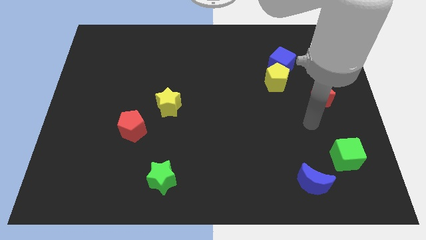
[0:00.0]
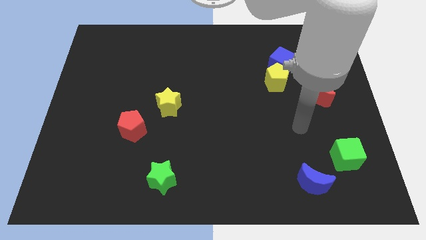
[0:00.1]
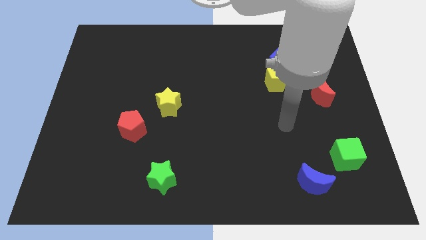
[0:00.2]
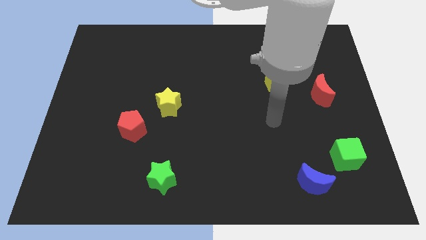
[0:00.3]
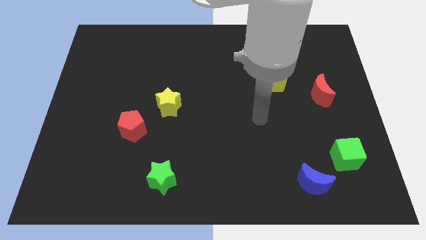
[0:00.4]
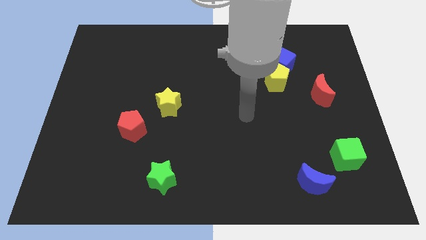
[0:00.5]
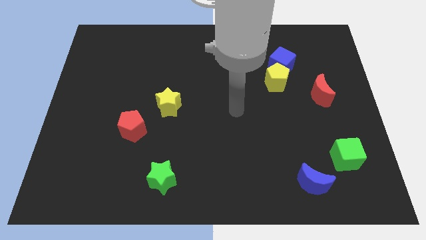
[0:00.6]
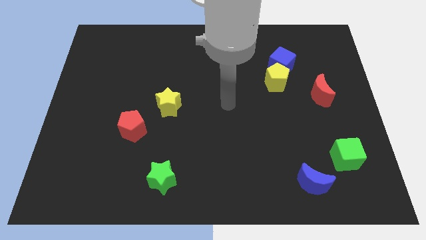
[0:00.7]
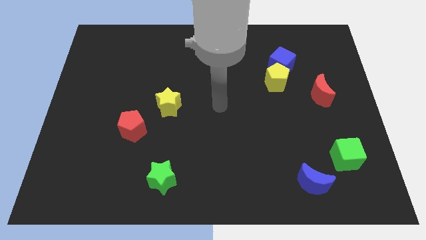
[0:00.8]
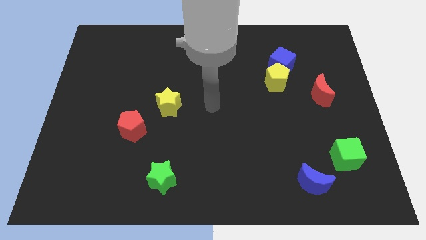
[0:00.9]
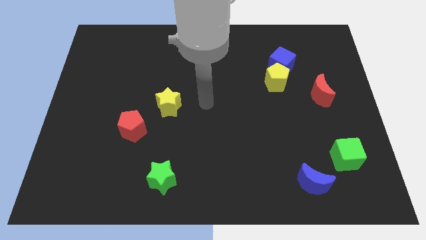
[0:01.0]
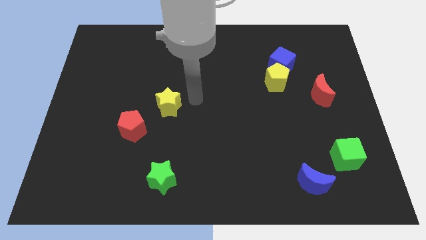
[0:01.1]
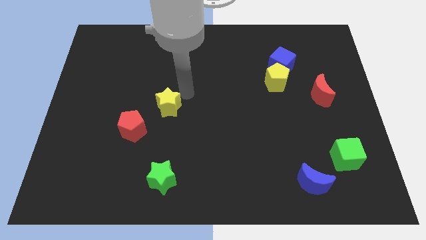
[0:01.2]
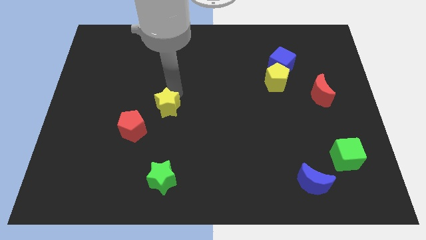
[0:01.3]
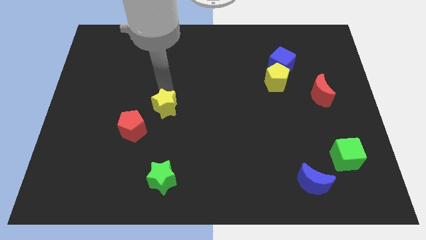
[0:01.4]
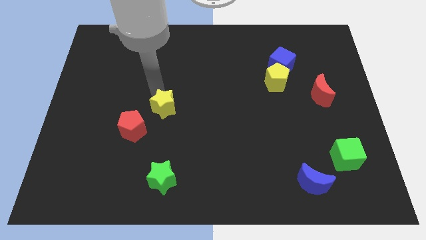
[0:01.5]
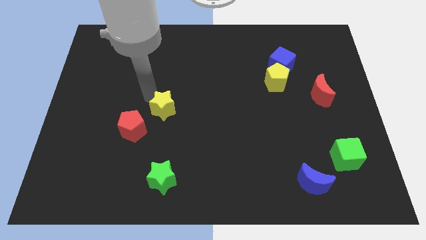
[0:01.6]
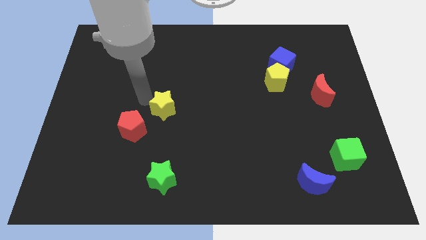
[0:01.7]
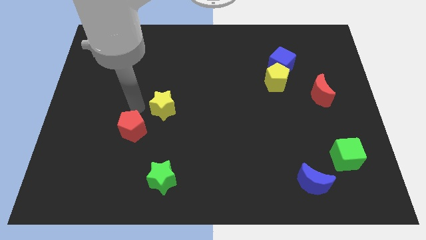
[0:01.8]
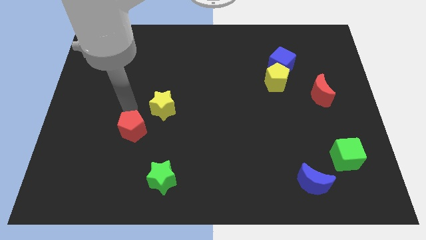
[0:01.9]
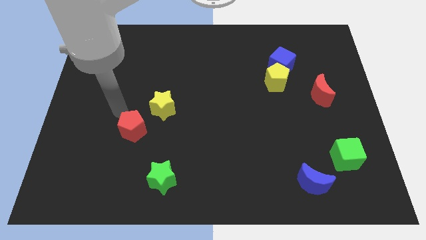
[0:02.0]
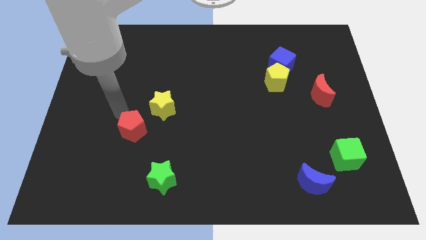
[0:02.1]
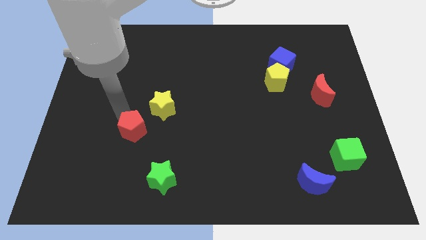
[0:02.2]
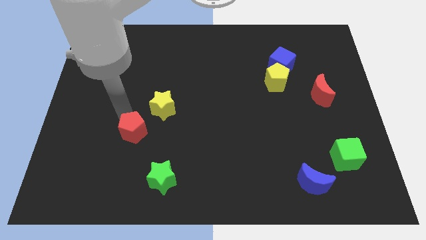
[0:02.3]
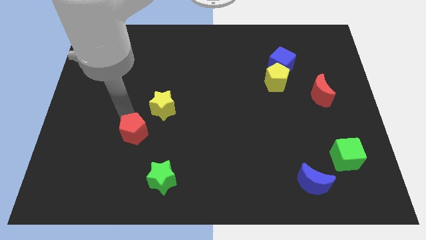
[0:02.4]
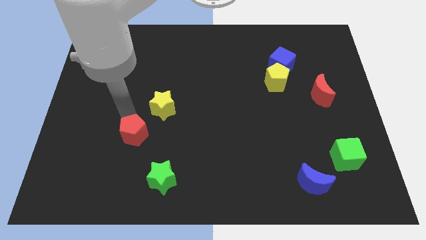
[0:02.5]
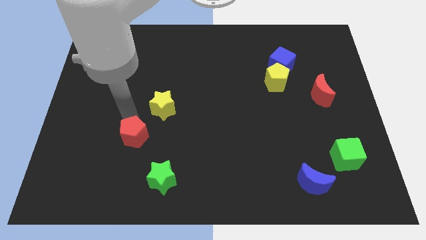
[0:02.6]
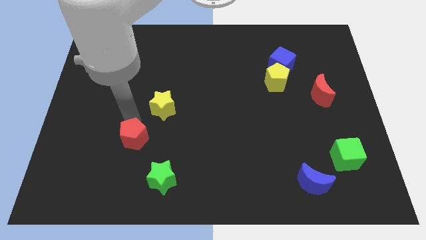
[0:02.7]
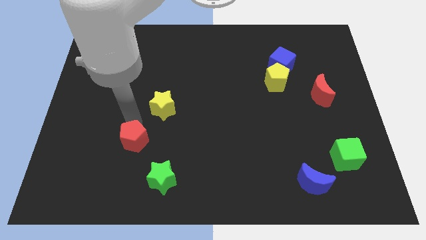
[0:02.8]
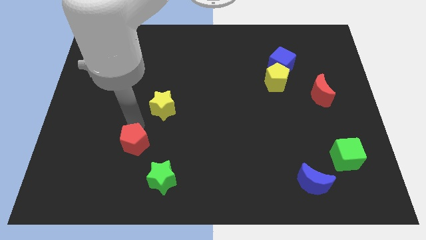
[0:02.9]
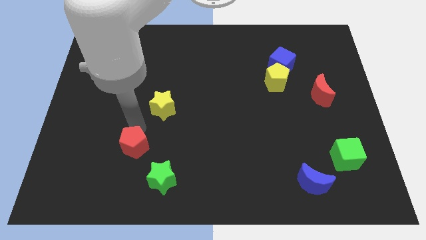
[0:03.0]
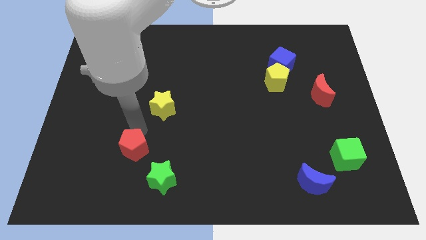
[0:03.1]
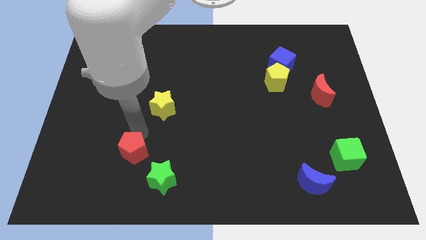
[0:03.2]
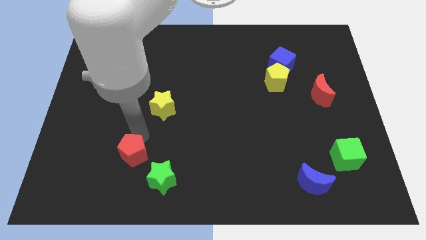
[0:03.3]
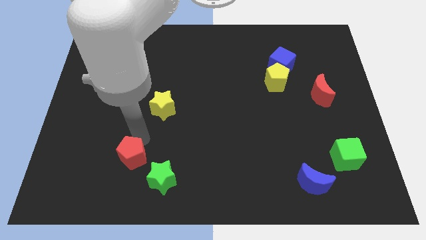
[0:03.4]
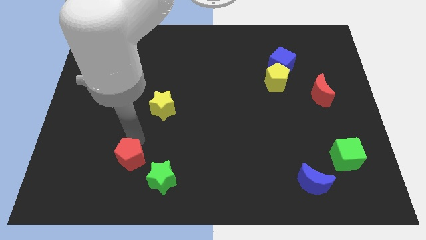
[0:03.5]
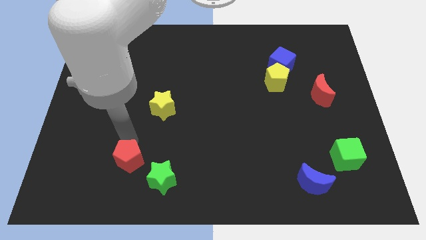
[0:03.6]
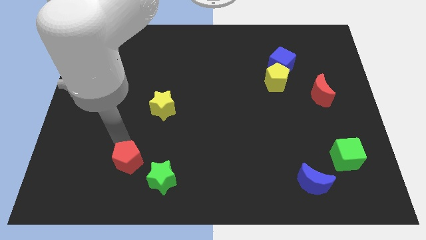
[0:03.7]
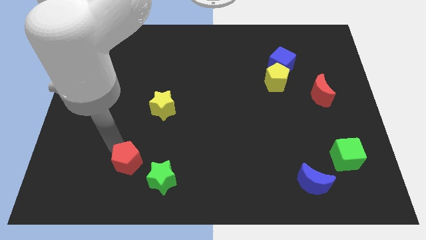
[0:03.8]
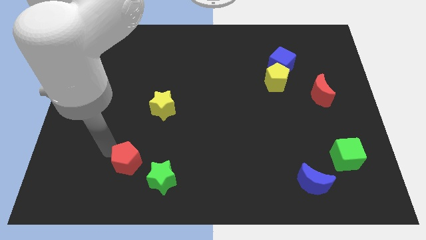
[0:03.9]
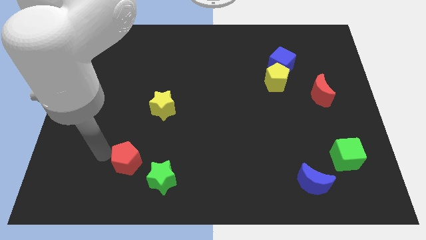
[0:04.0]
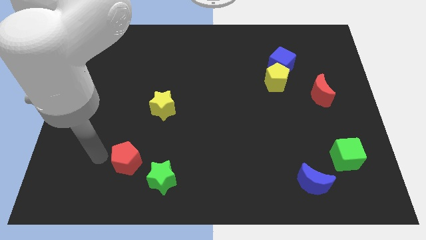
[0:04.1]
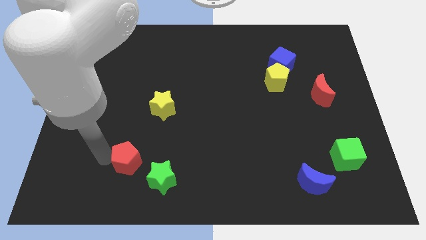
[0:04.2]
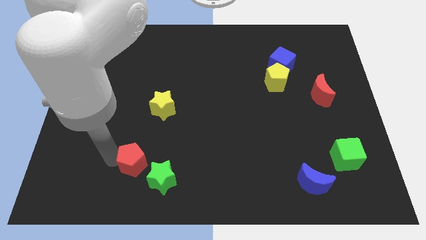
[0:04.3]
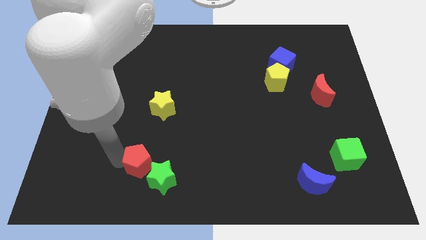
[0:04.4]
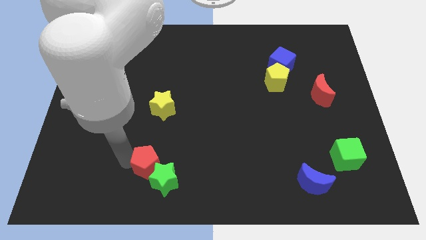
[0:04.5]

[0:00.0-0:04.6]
put the red pentagon next to the green star

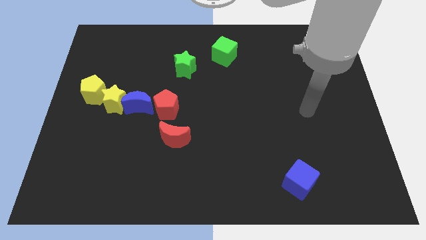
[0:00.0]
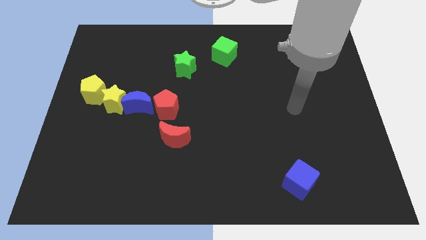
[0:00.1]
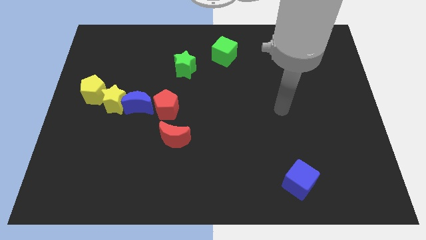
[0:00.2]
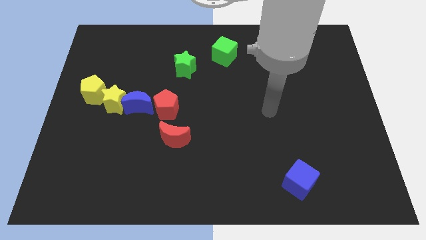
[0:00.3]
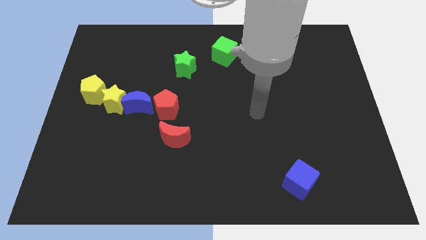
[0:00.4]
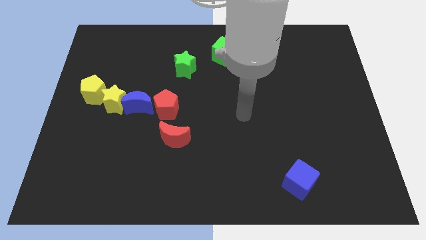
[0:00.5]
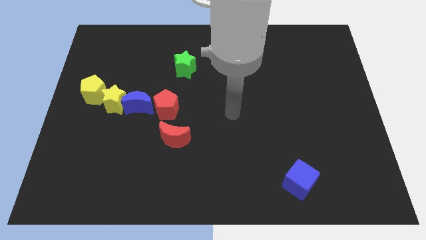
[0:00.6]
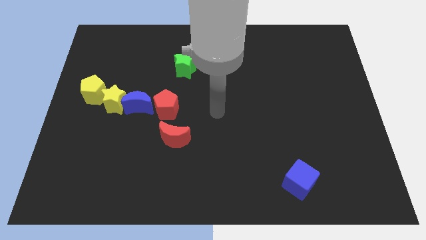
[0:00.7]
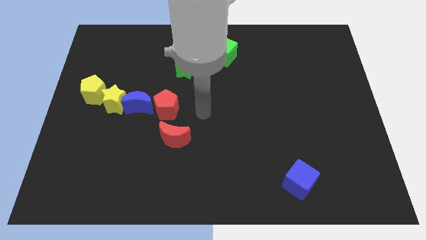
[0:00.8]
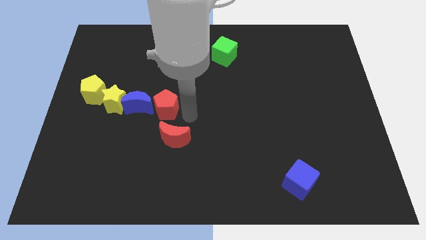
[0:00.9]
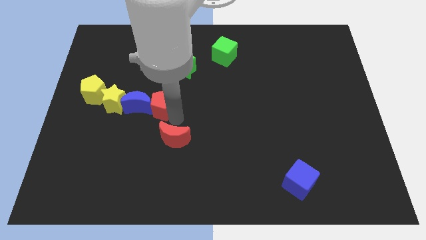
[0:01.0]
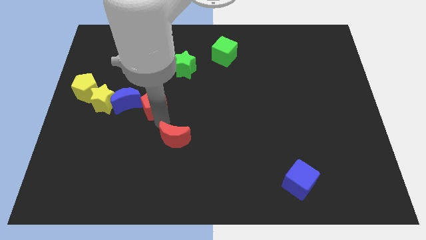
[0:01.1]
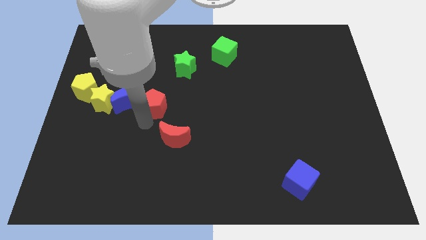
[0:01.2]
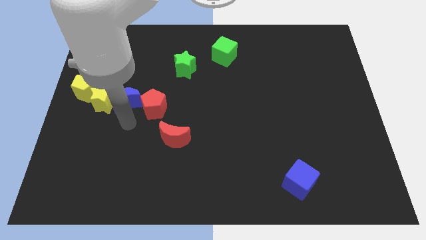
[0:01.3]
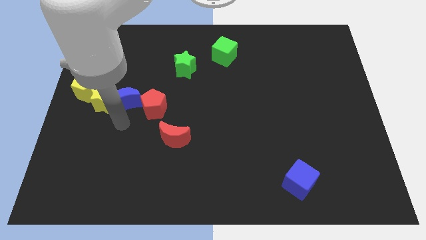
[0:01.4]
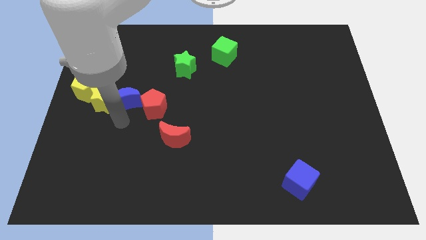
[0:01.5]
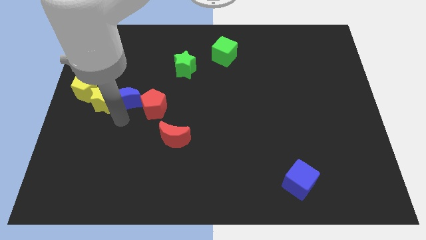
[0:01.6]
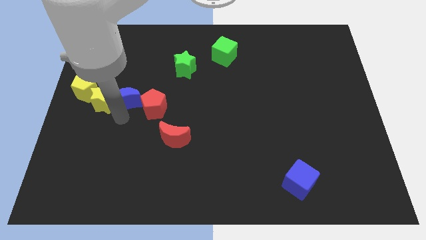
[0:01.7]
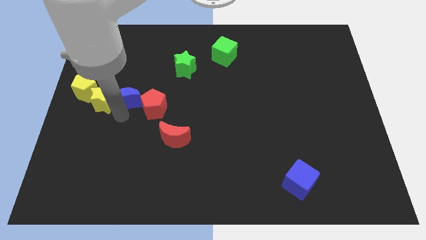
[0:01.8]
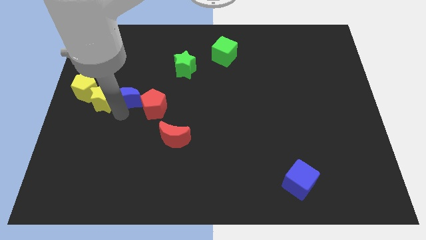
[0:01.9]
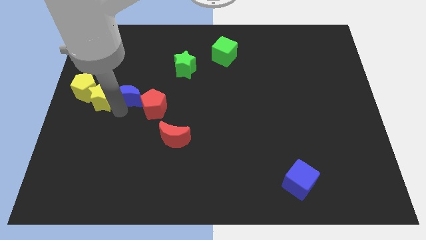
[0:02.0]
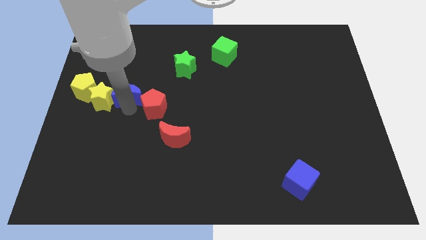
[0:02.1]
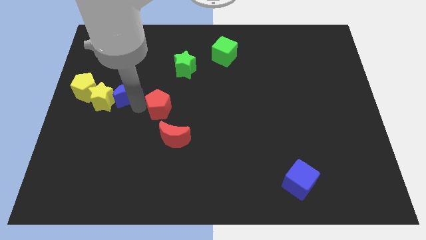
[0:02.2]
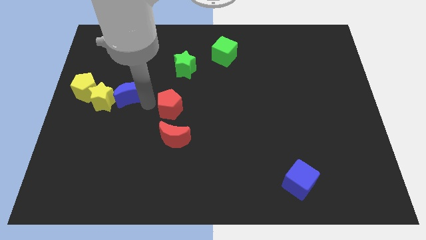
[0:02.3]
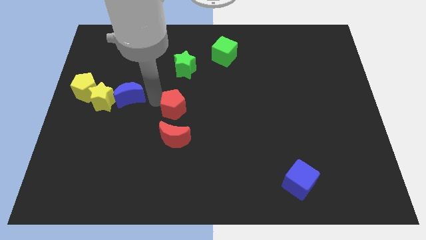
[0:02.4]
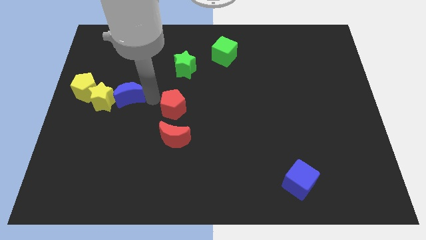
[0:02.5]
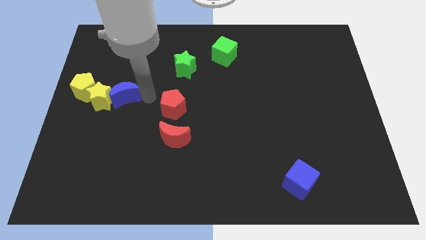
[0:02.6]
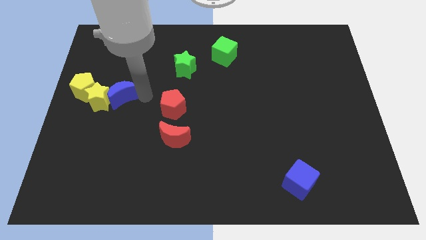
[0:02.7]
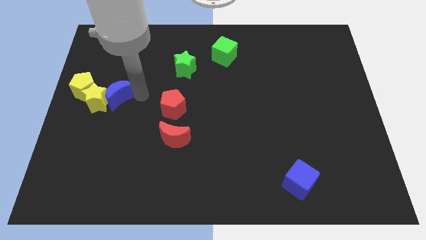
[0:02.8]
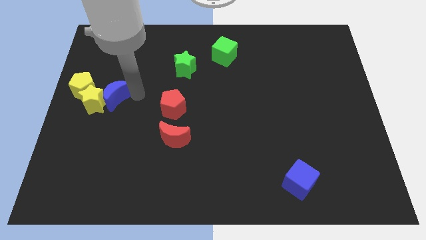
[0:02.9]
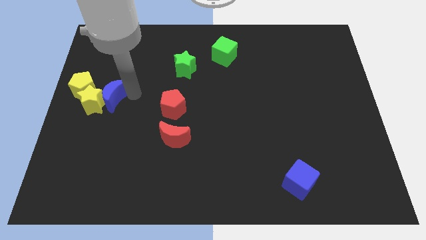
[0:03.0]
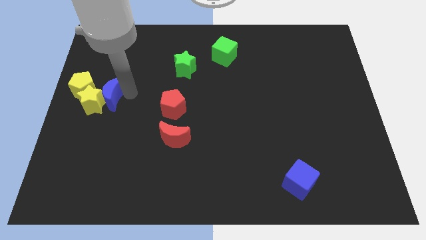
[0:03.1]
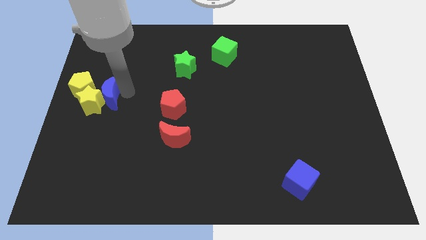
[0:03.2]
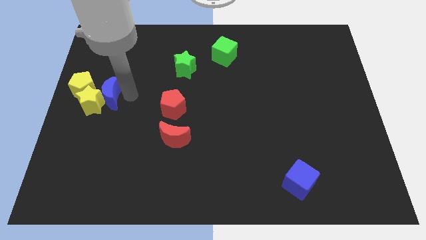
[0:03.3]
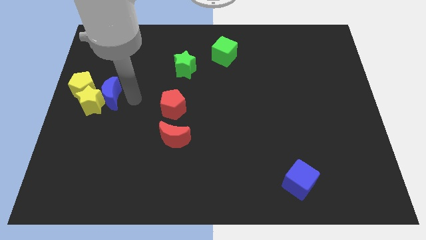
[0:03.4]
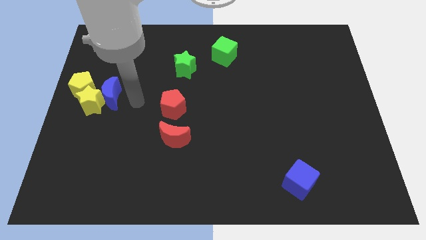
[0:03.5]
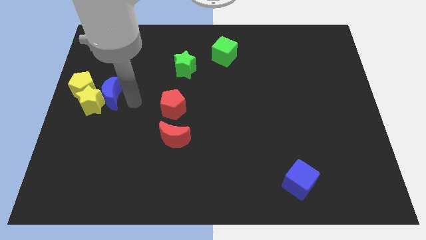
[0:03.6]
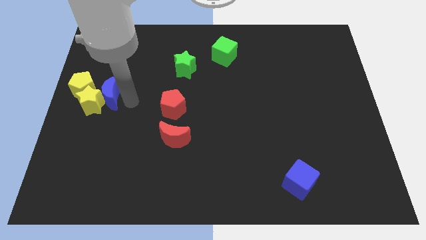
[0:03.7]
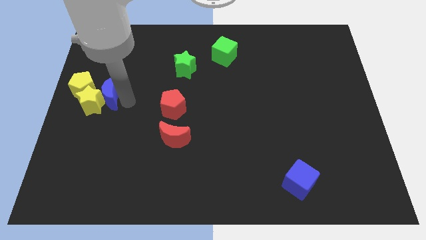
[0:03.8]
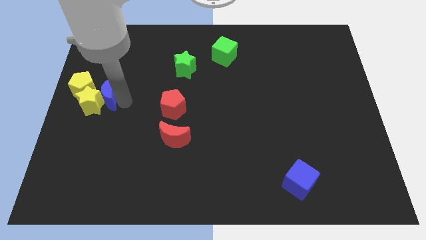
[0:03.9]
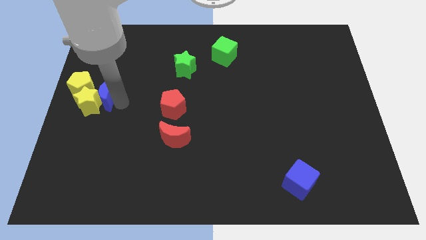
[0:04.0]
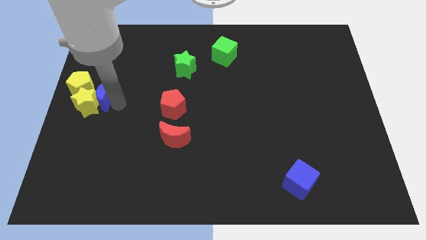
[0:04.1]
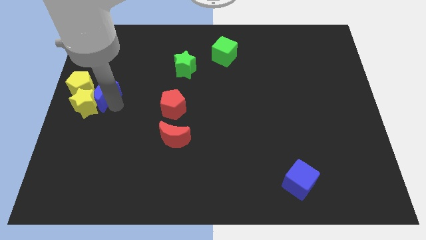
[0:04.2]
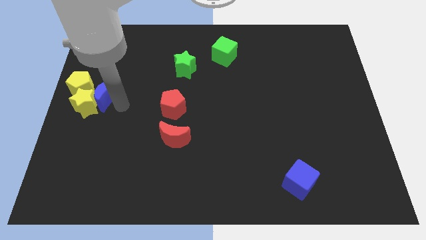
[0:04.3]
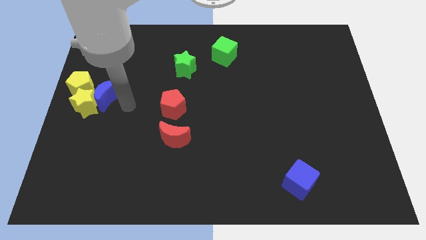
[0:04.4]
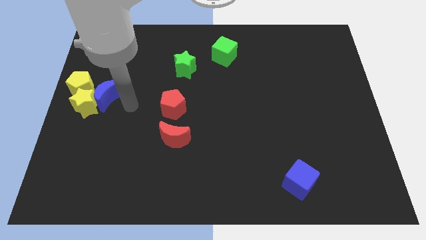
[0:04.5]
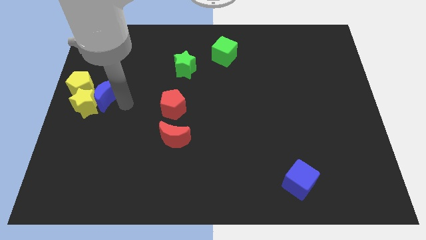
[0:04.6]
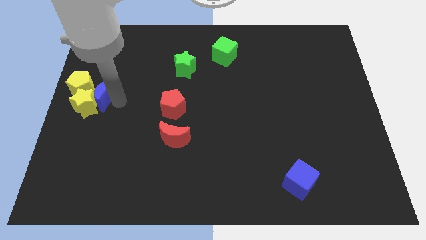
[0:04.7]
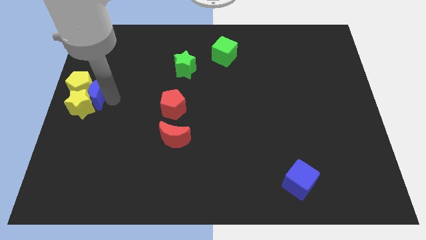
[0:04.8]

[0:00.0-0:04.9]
put the blue moon to the yellow pentagon
